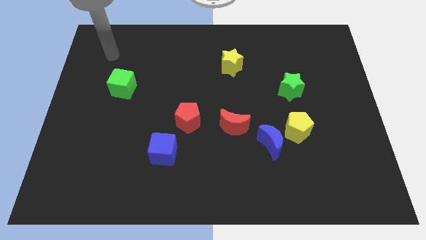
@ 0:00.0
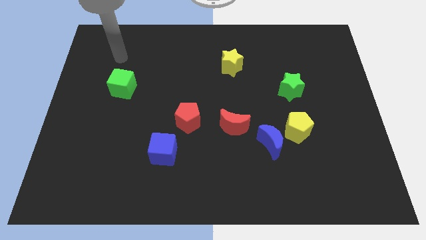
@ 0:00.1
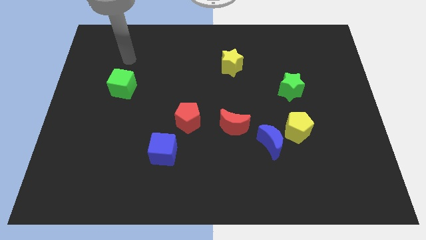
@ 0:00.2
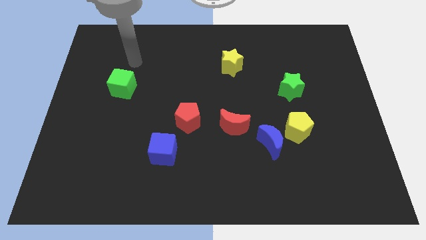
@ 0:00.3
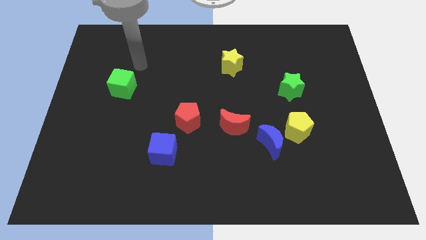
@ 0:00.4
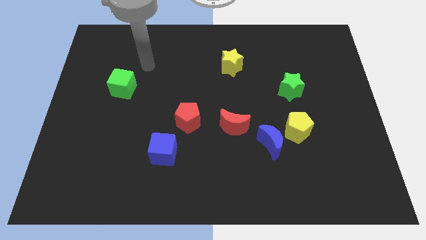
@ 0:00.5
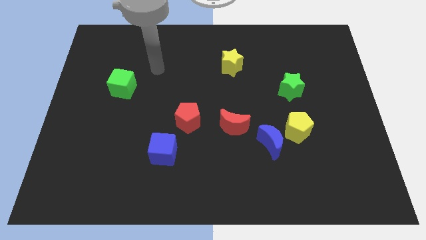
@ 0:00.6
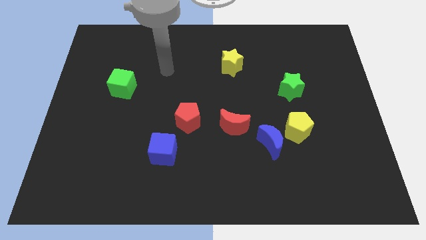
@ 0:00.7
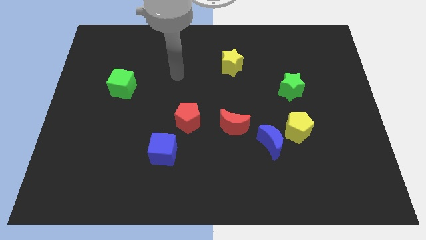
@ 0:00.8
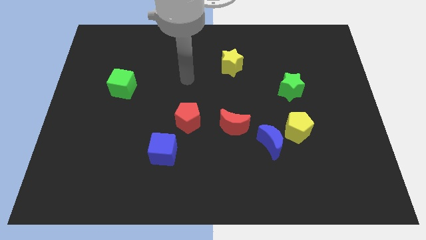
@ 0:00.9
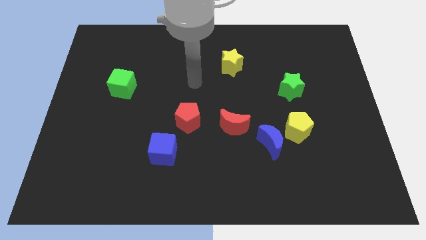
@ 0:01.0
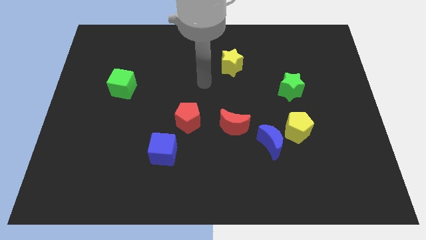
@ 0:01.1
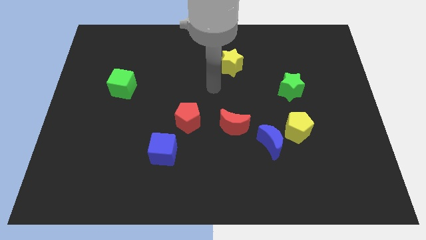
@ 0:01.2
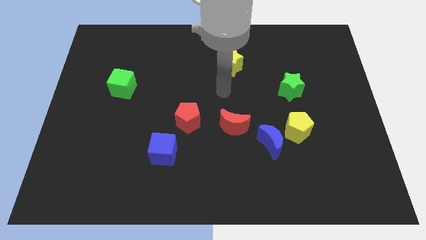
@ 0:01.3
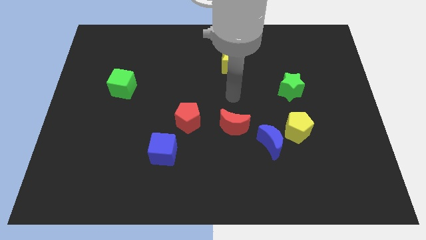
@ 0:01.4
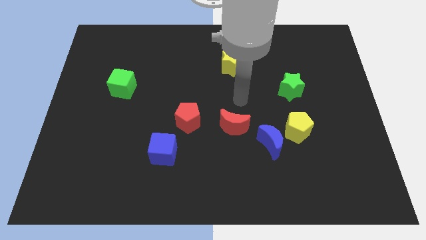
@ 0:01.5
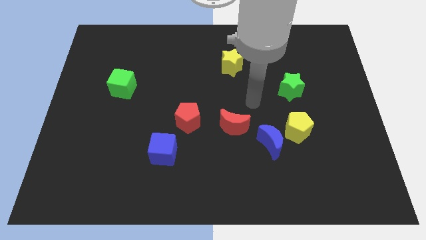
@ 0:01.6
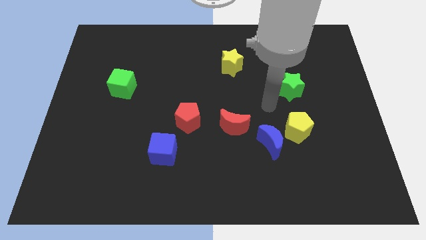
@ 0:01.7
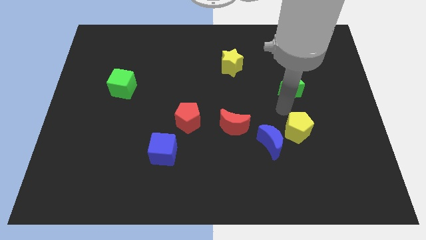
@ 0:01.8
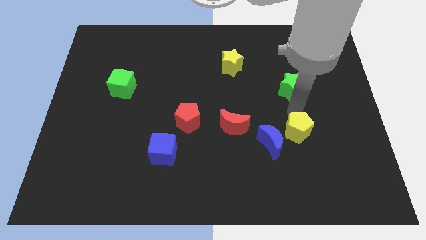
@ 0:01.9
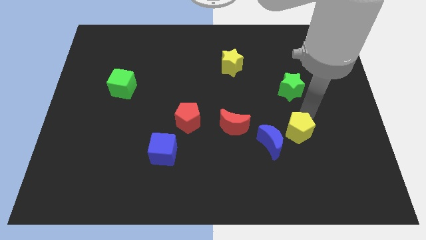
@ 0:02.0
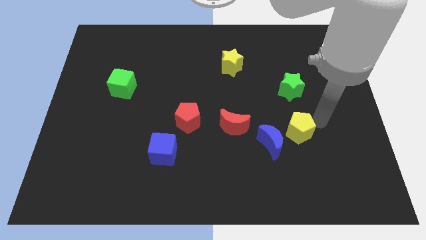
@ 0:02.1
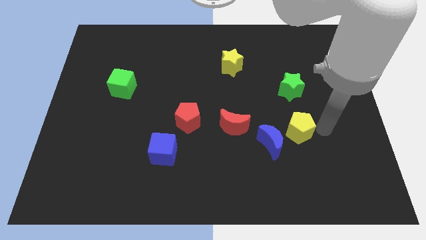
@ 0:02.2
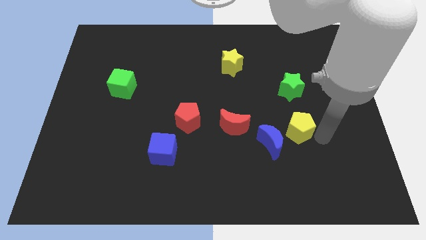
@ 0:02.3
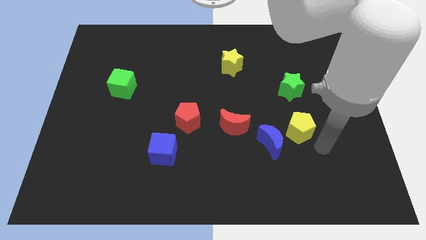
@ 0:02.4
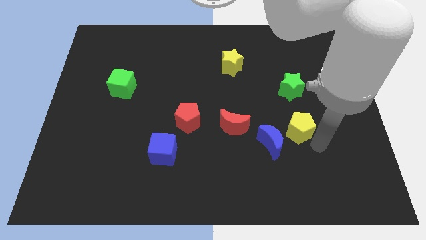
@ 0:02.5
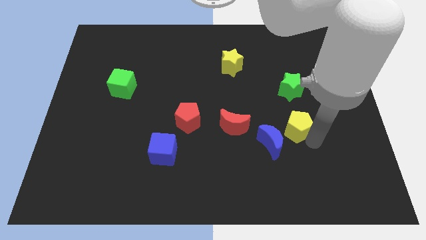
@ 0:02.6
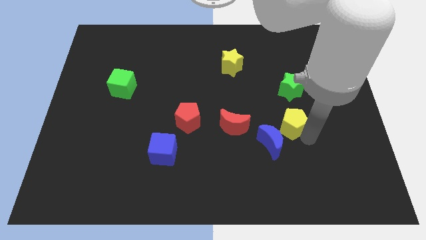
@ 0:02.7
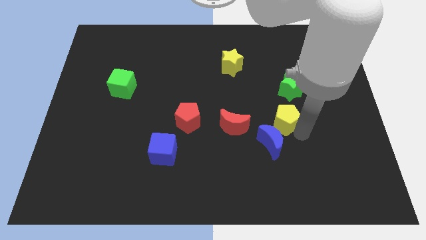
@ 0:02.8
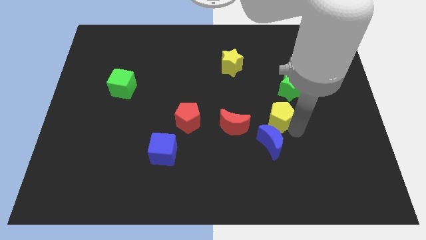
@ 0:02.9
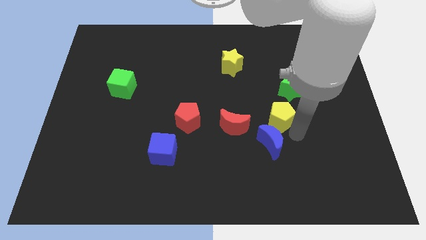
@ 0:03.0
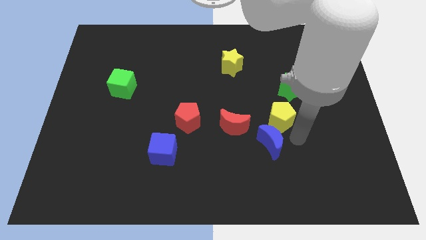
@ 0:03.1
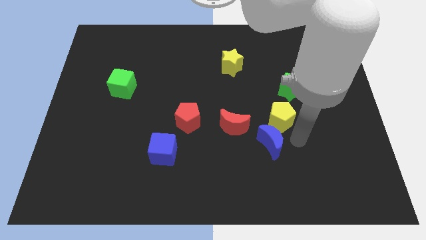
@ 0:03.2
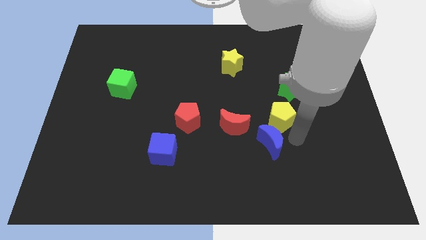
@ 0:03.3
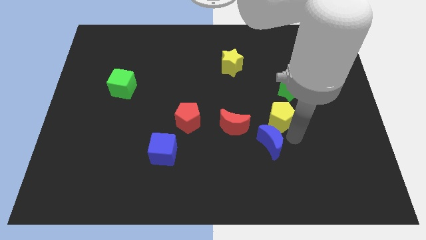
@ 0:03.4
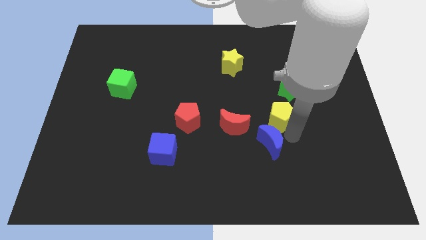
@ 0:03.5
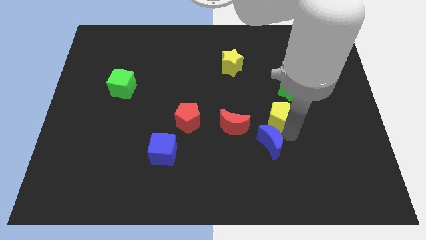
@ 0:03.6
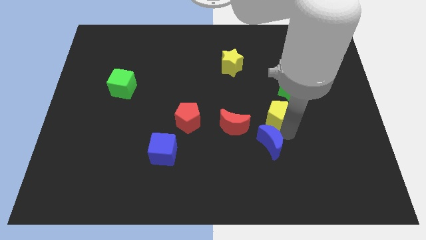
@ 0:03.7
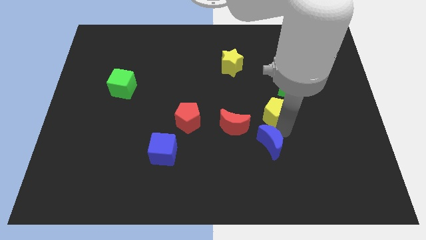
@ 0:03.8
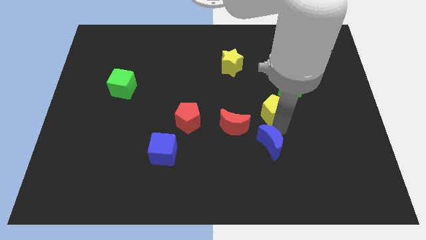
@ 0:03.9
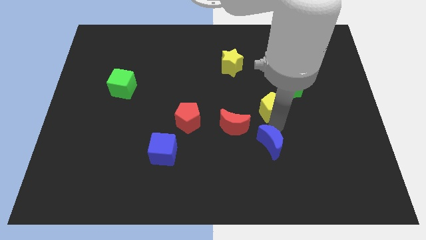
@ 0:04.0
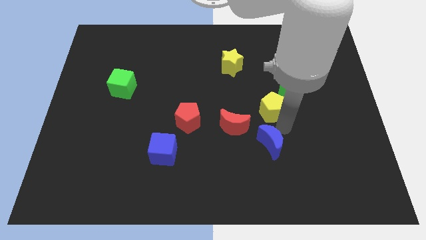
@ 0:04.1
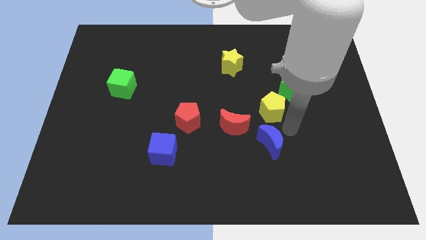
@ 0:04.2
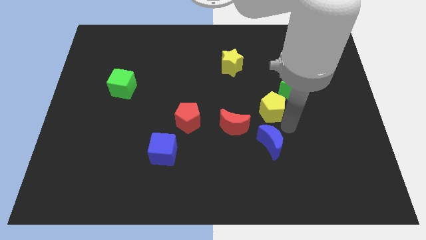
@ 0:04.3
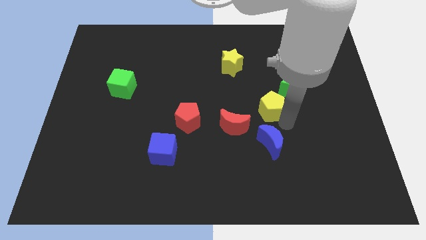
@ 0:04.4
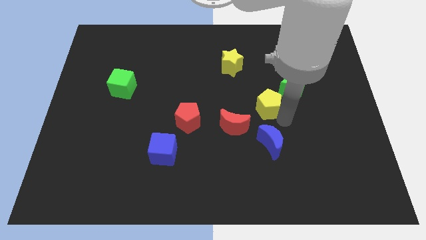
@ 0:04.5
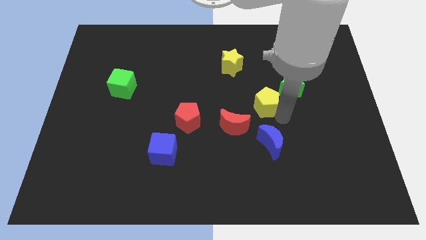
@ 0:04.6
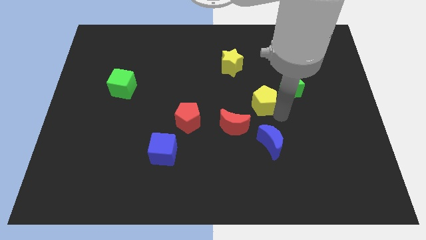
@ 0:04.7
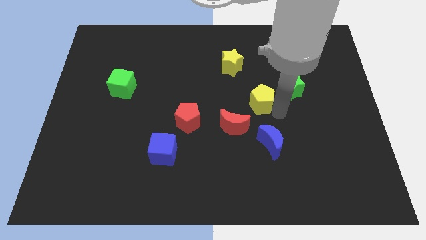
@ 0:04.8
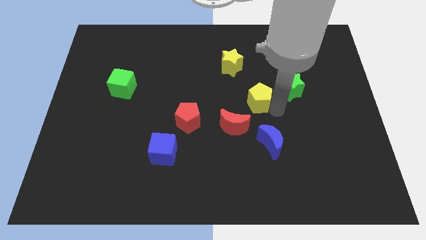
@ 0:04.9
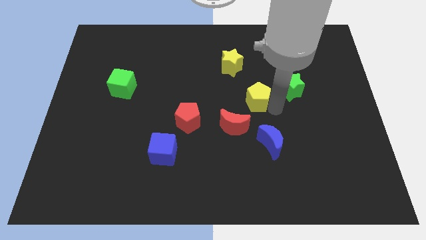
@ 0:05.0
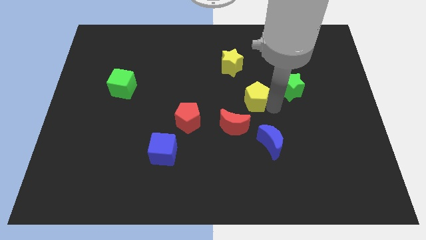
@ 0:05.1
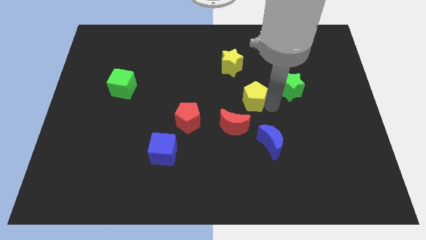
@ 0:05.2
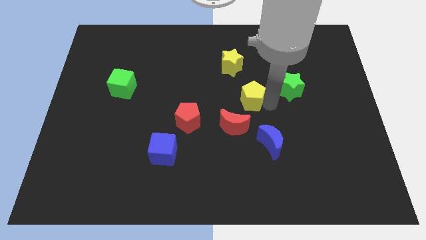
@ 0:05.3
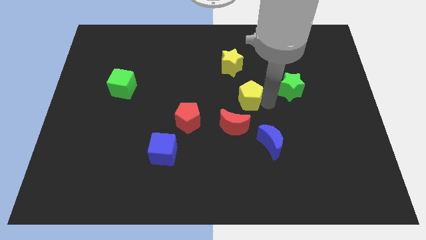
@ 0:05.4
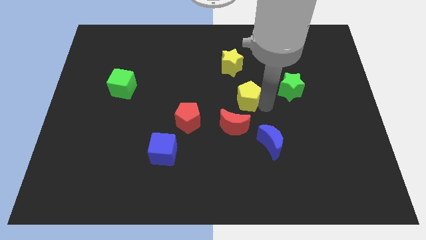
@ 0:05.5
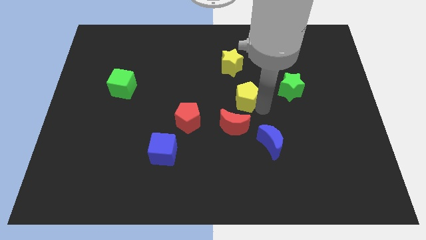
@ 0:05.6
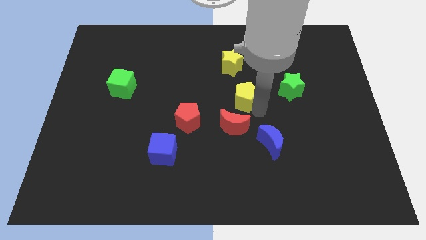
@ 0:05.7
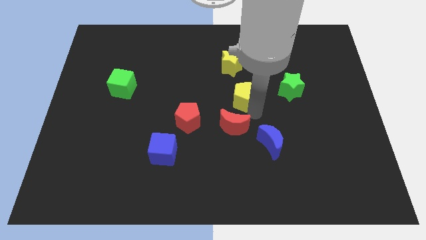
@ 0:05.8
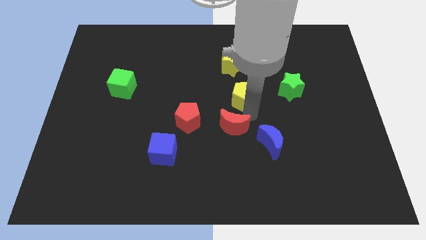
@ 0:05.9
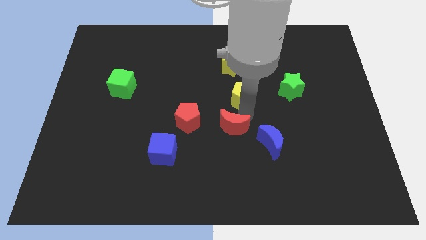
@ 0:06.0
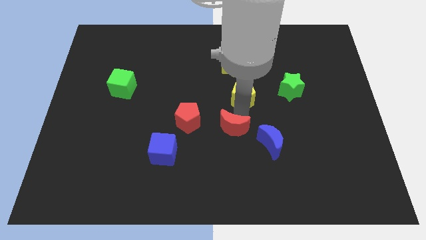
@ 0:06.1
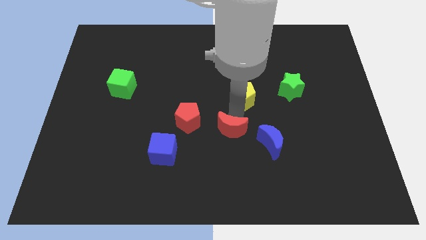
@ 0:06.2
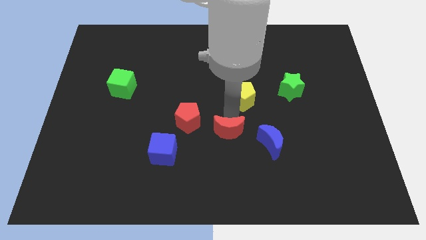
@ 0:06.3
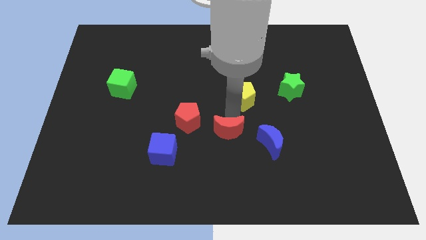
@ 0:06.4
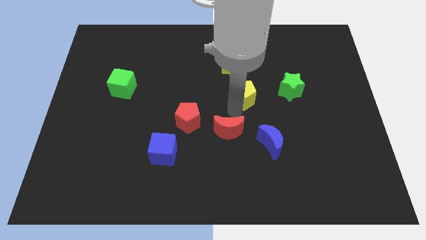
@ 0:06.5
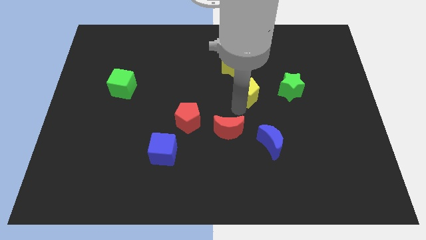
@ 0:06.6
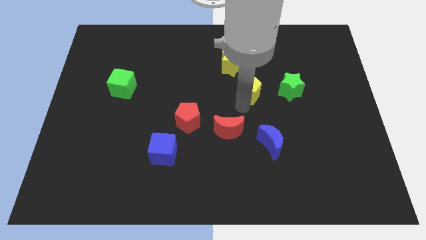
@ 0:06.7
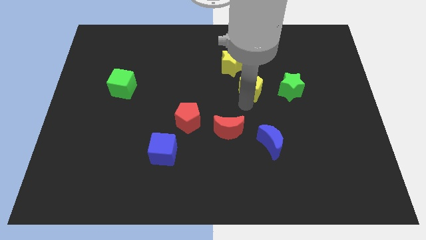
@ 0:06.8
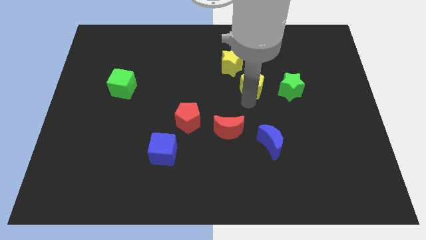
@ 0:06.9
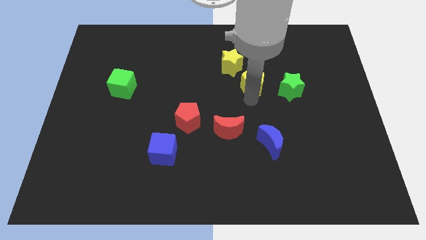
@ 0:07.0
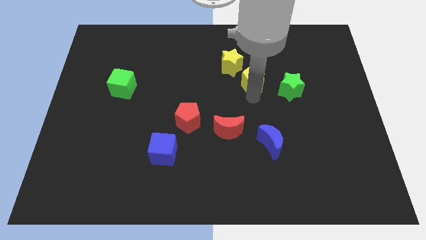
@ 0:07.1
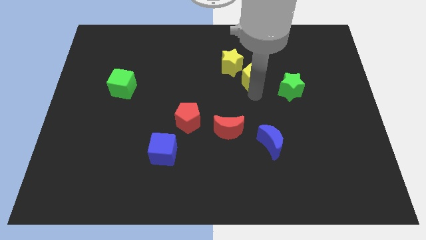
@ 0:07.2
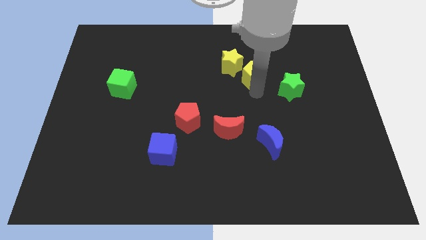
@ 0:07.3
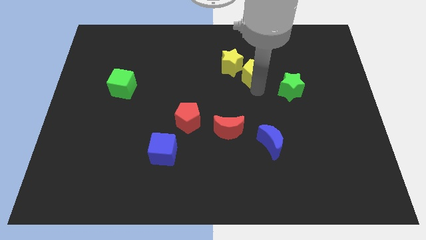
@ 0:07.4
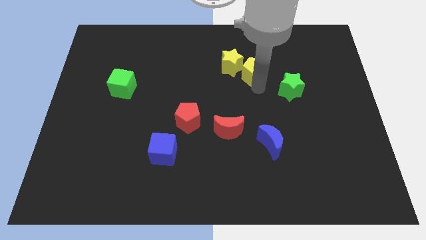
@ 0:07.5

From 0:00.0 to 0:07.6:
move the yellow pentagon to the yellow star
